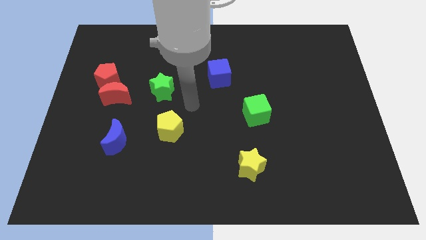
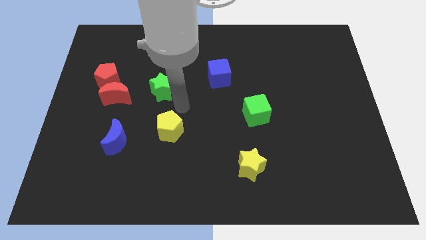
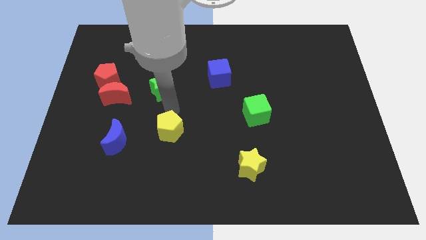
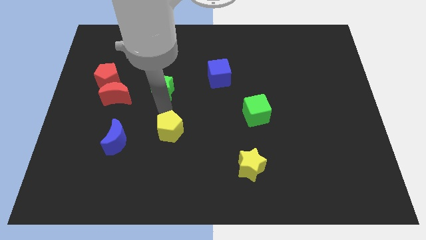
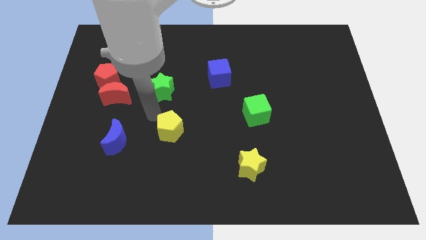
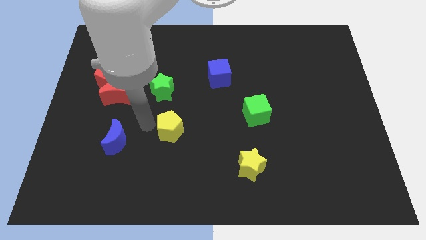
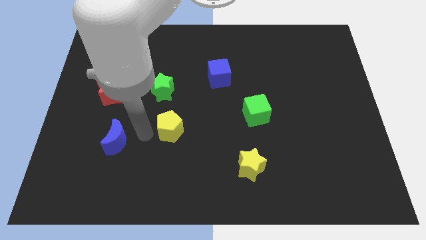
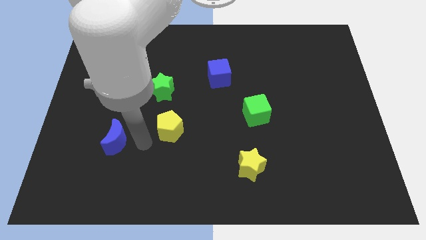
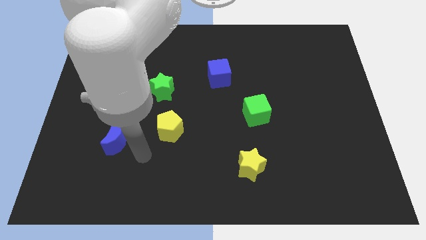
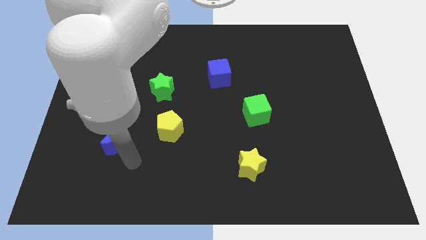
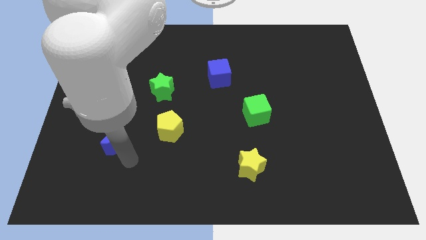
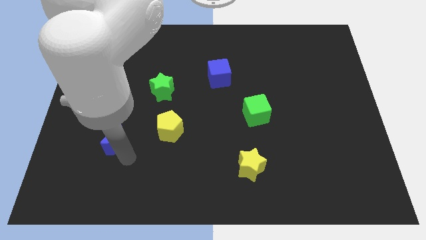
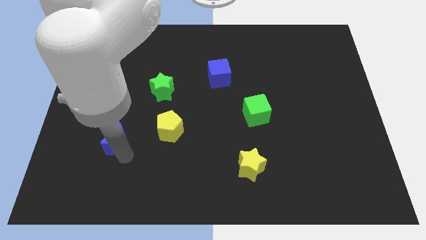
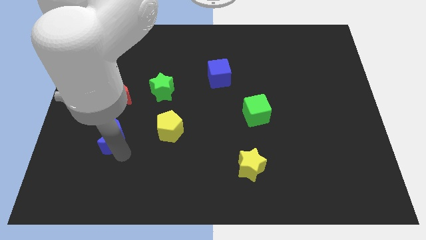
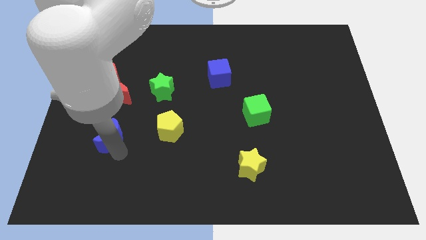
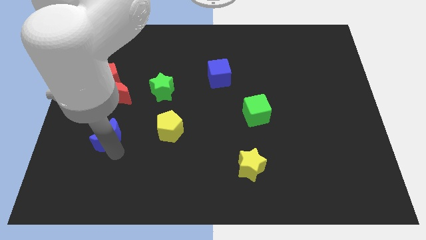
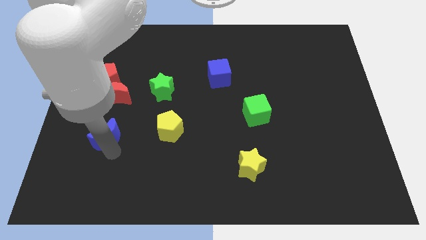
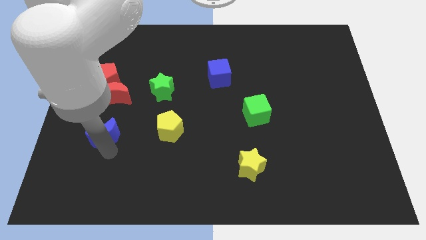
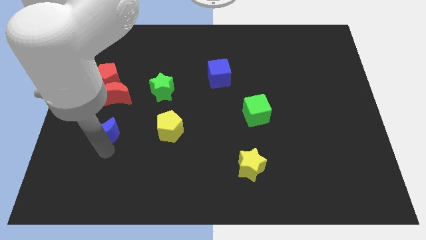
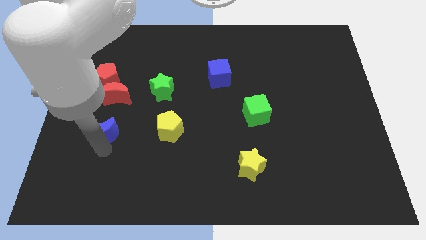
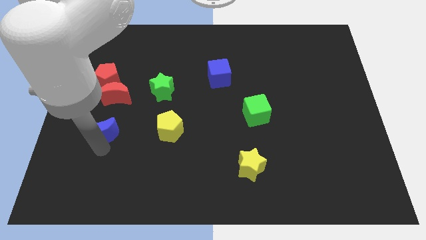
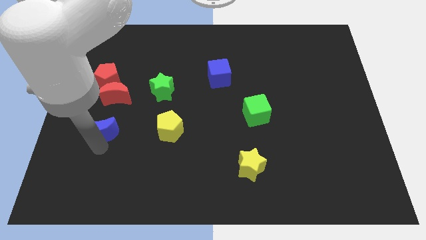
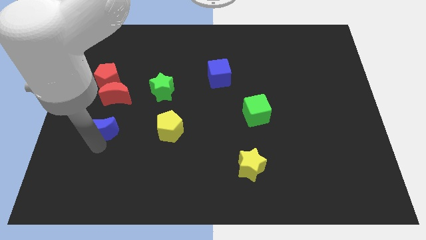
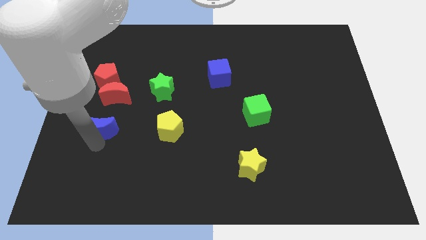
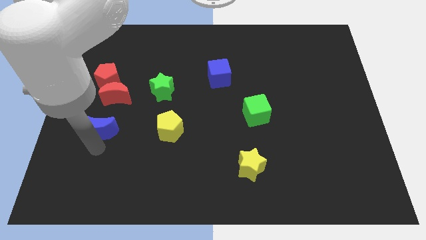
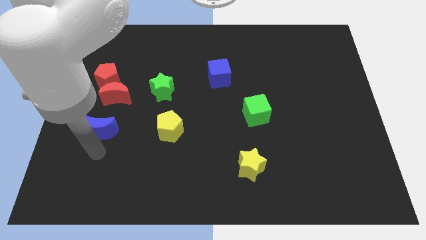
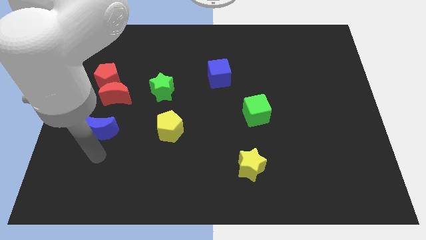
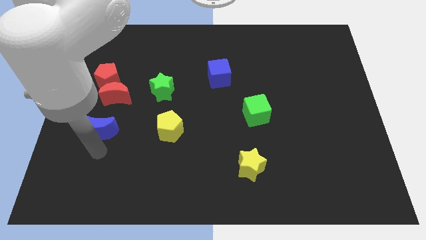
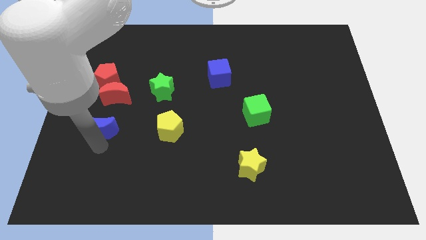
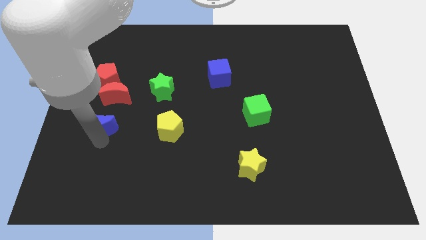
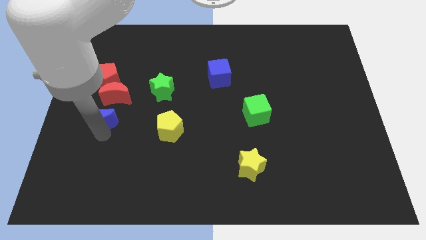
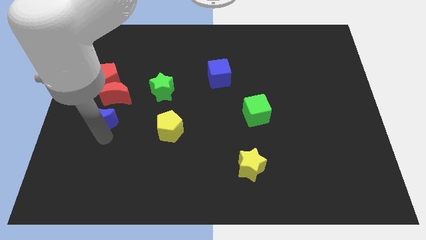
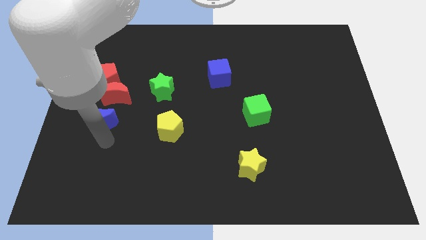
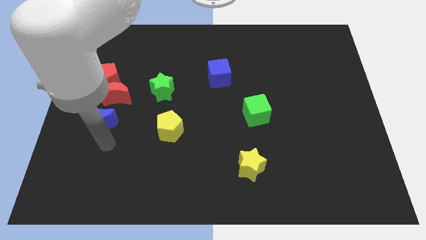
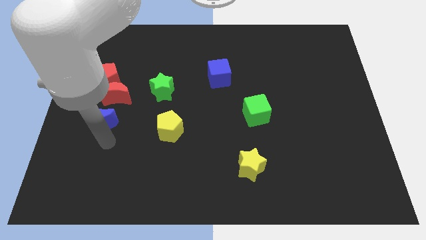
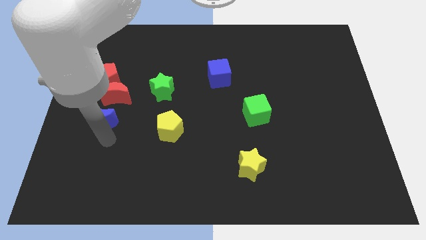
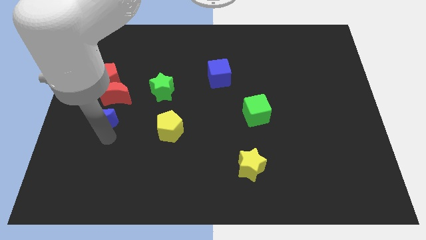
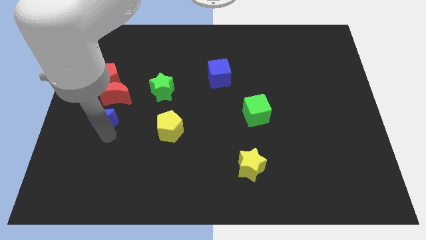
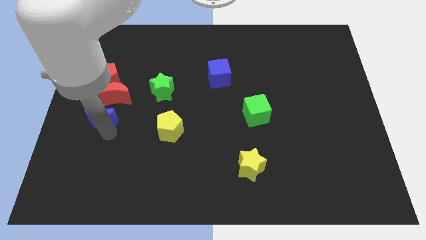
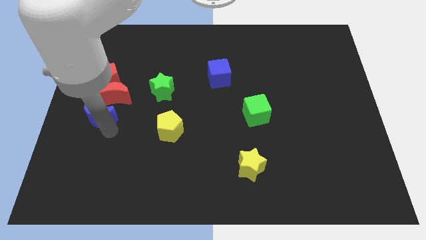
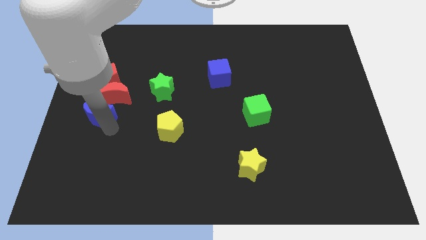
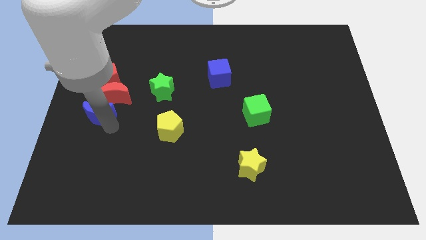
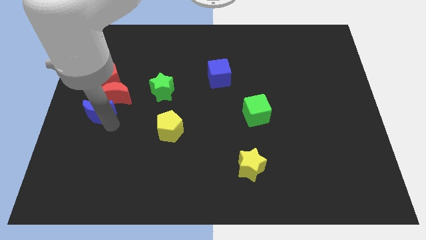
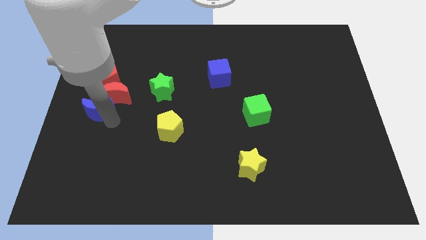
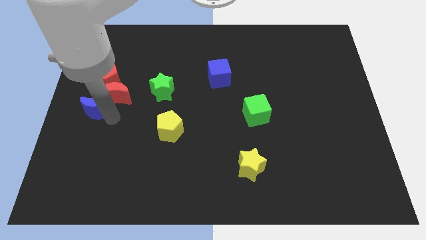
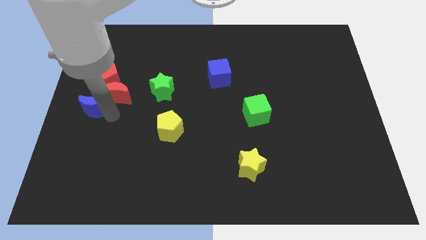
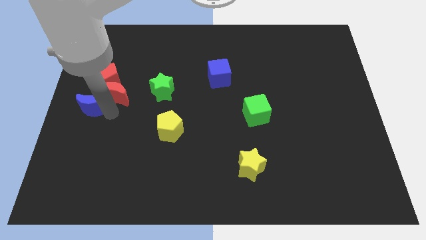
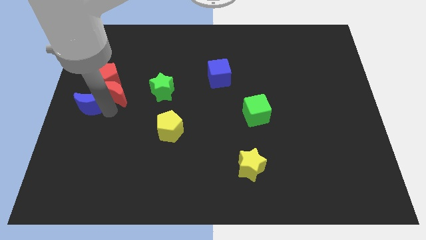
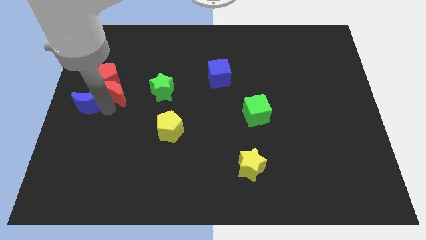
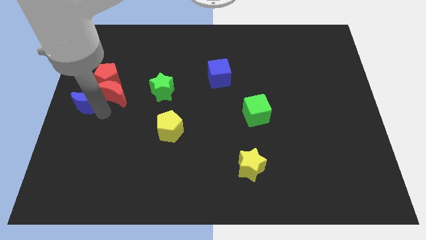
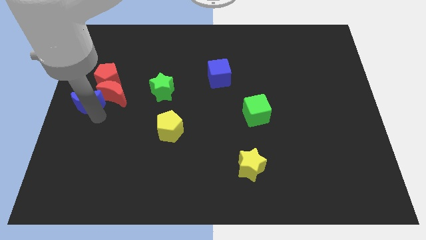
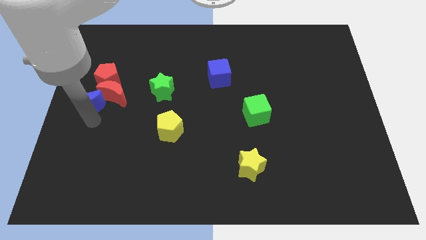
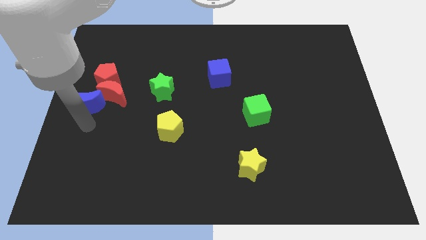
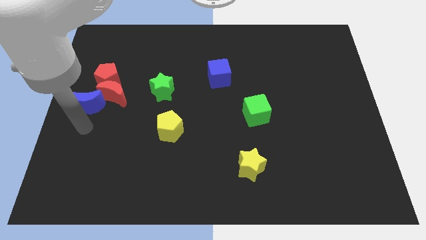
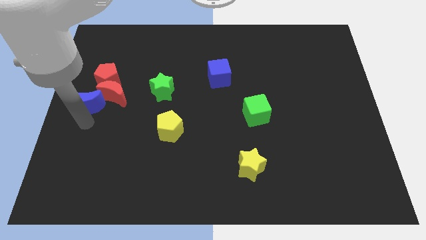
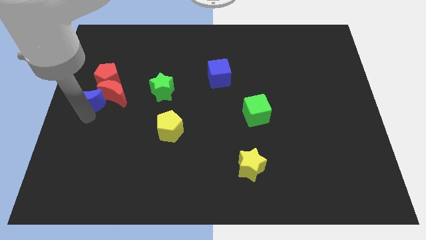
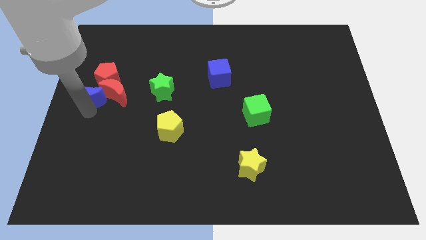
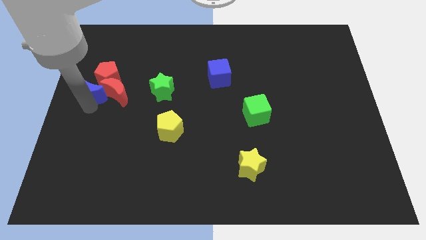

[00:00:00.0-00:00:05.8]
move the blue moon diagonally up and to the left of the red moon

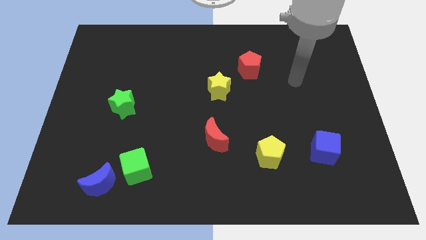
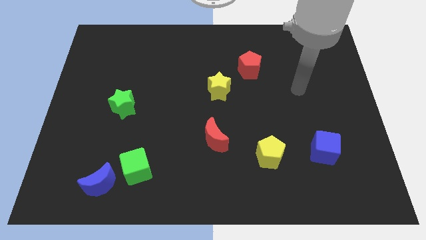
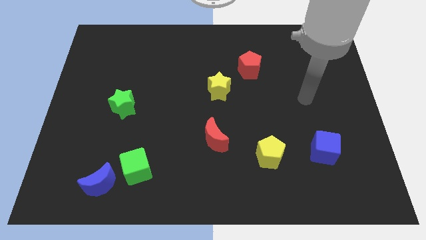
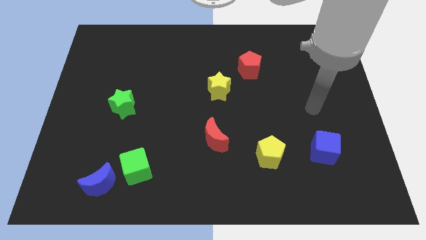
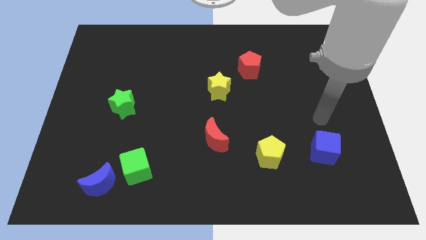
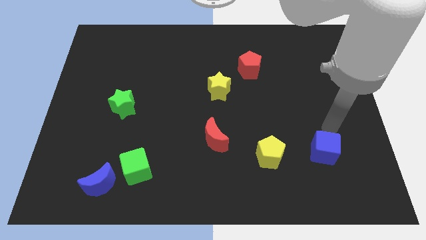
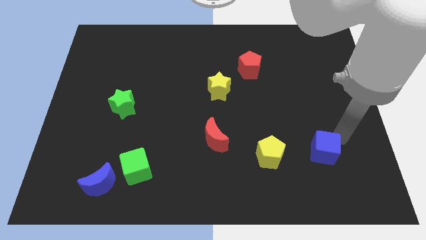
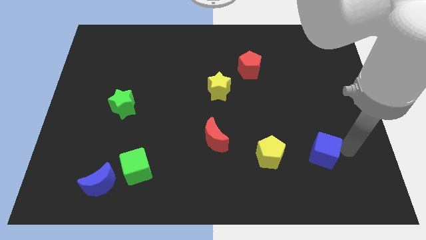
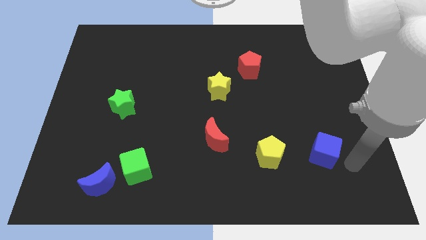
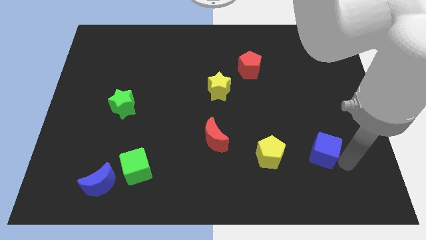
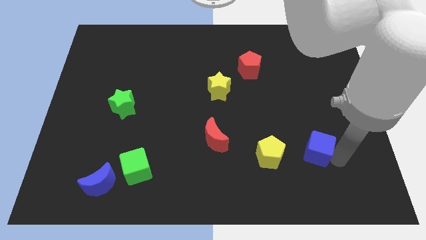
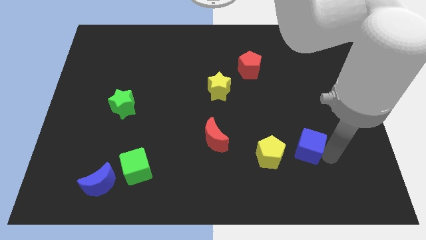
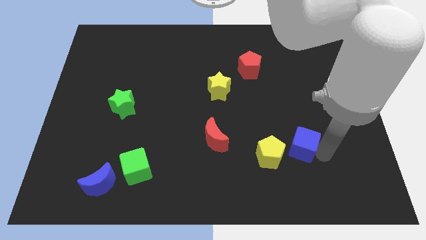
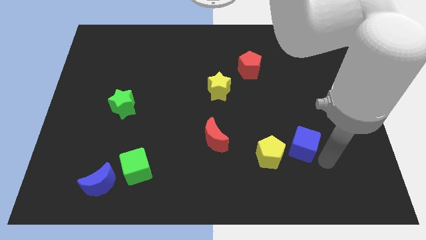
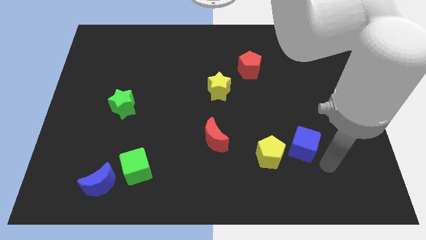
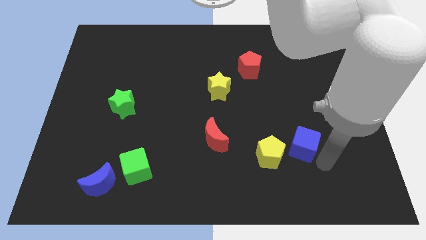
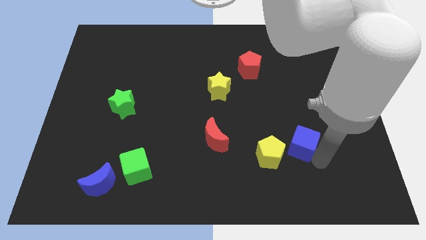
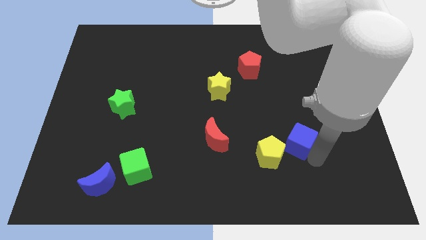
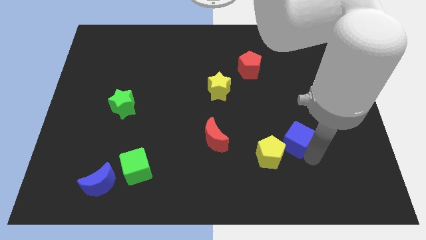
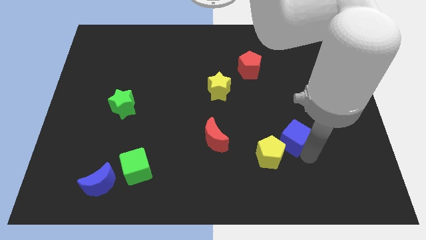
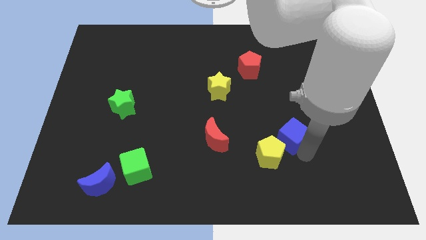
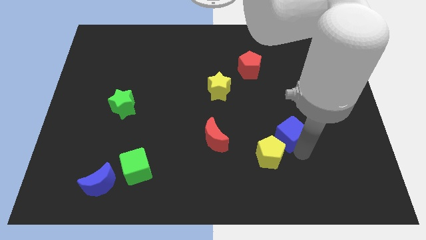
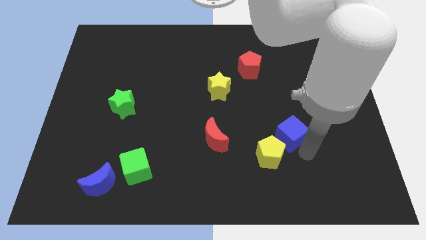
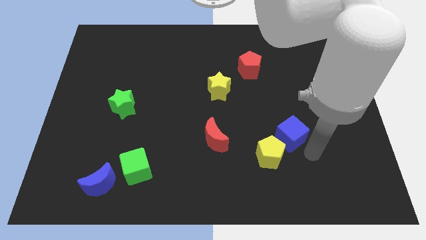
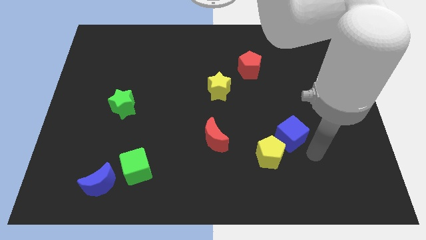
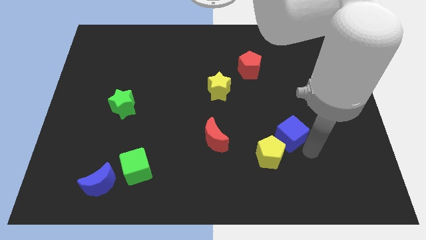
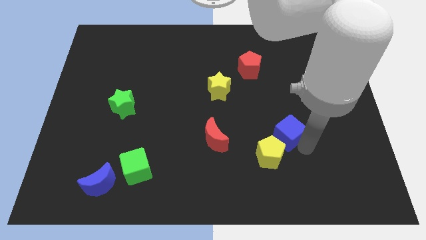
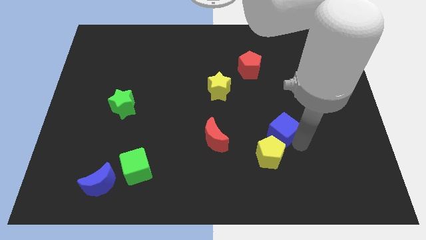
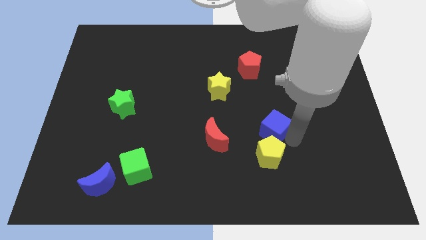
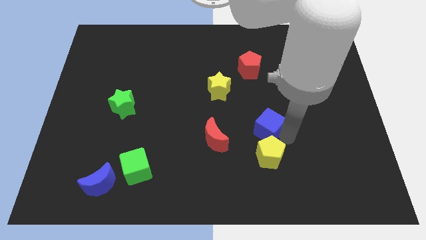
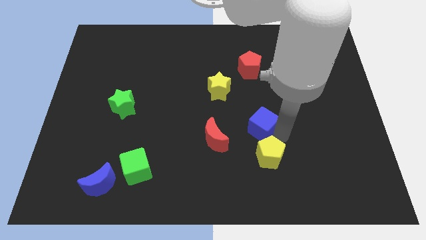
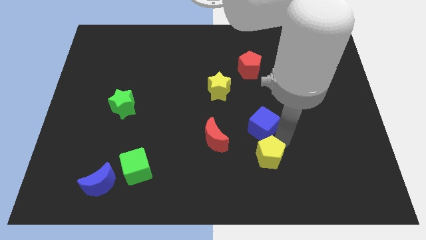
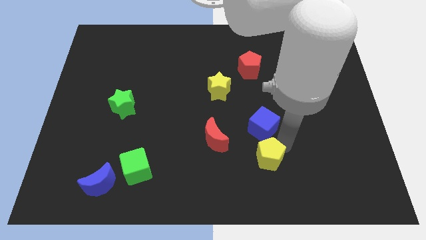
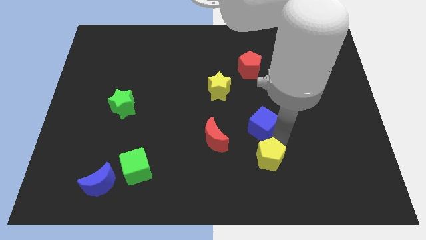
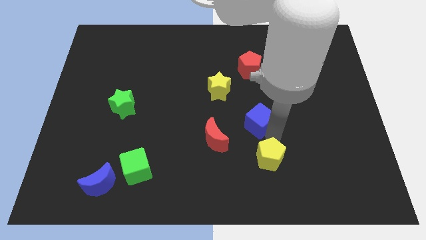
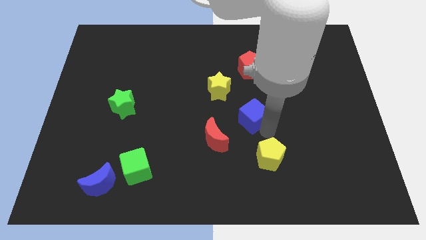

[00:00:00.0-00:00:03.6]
push the blue cube to the bottom right side of the yellow star
